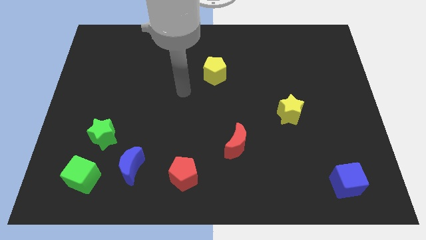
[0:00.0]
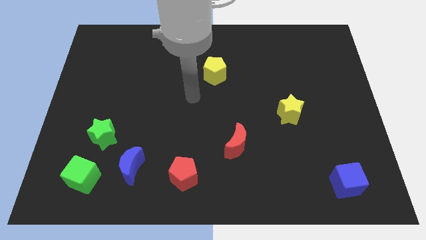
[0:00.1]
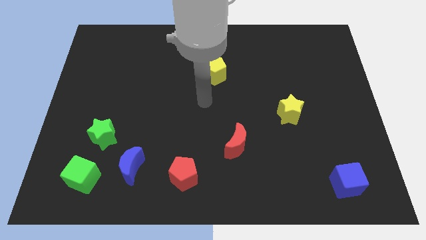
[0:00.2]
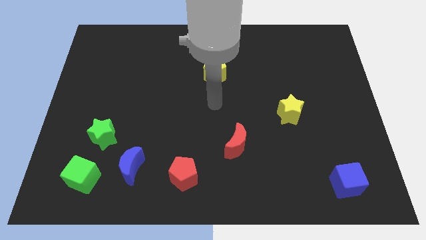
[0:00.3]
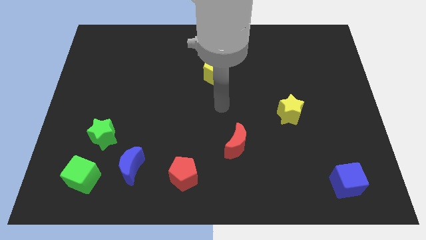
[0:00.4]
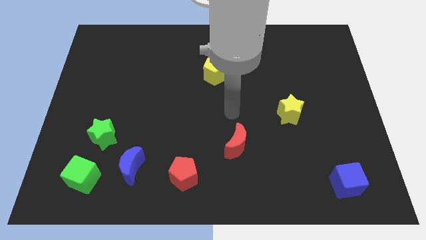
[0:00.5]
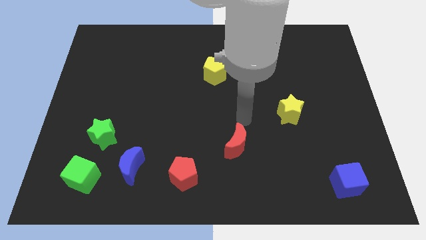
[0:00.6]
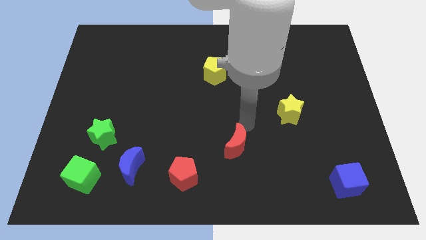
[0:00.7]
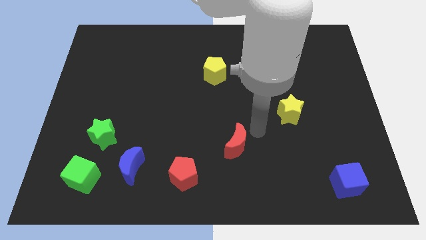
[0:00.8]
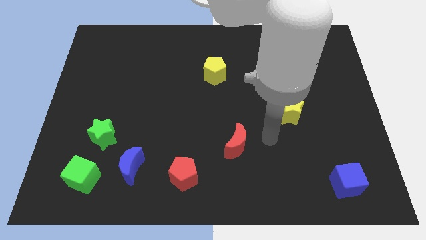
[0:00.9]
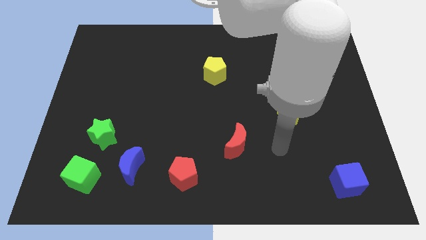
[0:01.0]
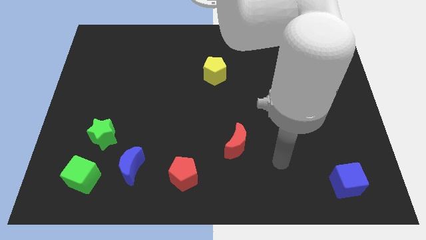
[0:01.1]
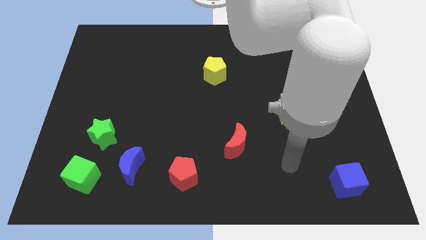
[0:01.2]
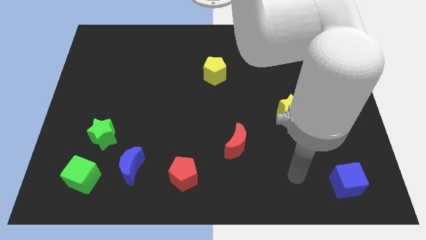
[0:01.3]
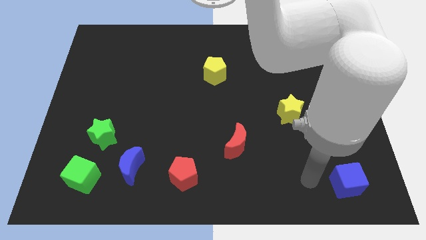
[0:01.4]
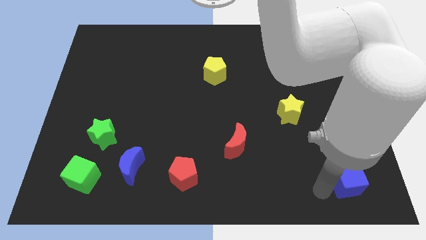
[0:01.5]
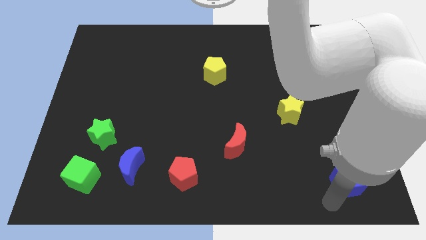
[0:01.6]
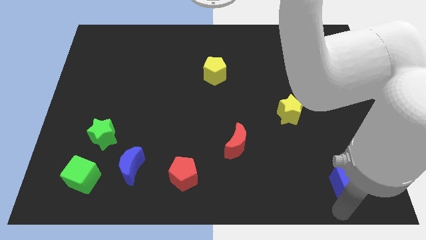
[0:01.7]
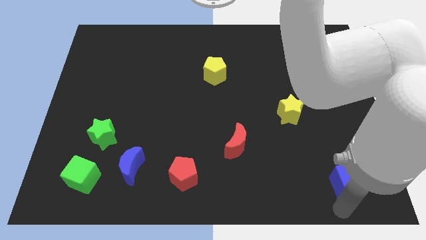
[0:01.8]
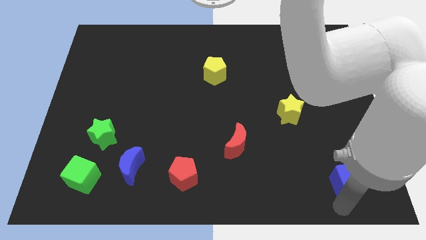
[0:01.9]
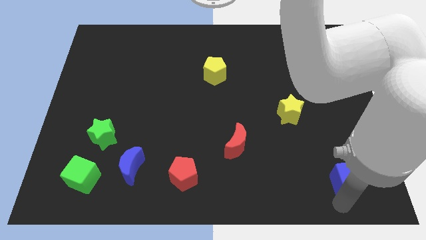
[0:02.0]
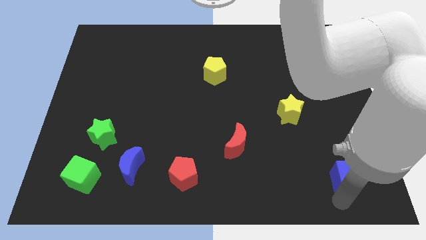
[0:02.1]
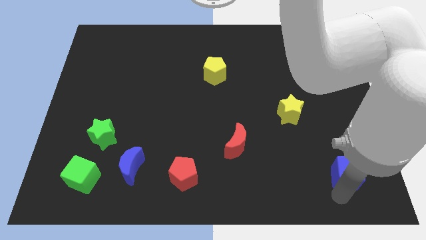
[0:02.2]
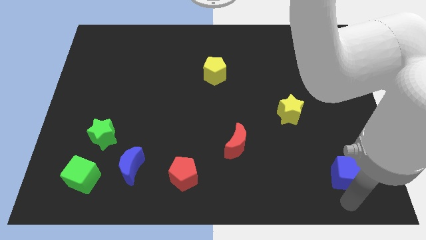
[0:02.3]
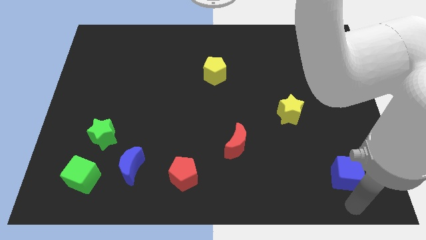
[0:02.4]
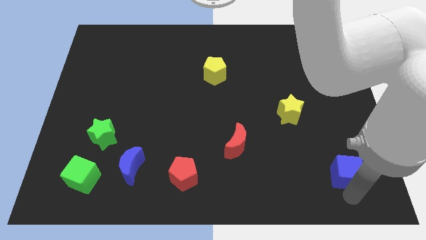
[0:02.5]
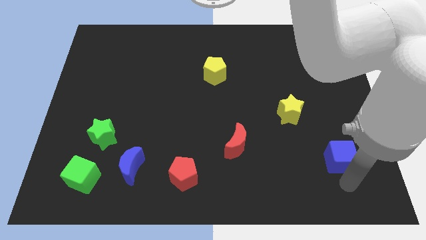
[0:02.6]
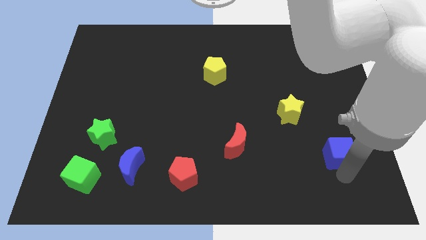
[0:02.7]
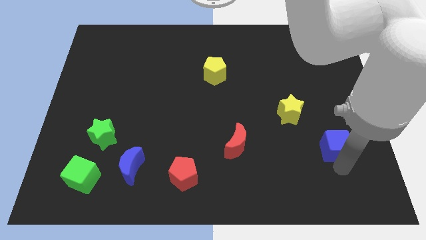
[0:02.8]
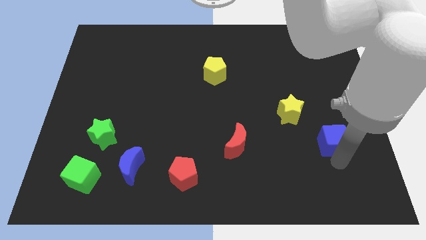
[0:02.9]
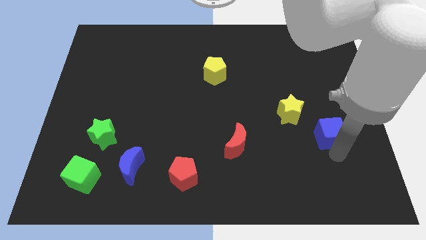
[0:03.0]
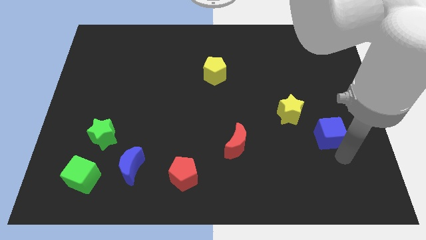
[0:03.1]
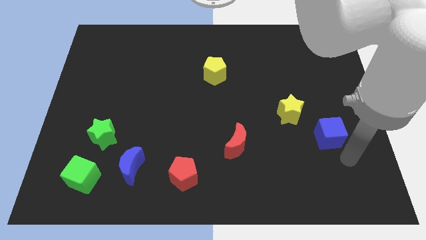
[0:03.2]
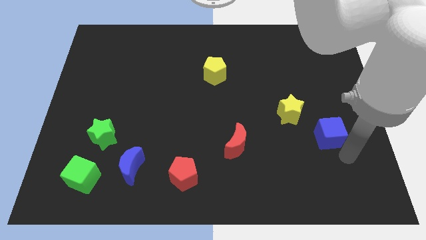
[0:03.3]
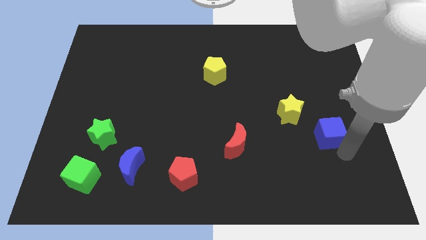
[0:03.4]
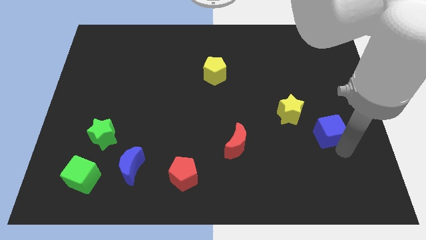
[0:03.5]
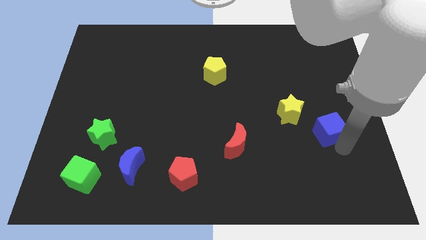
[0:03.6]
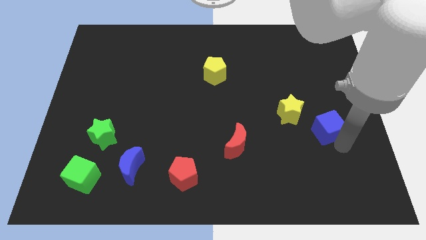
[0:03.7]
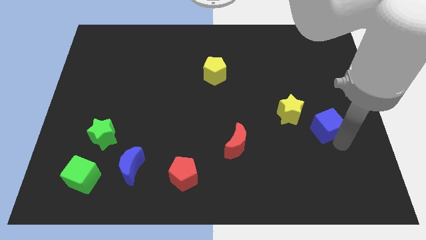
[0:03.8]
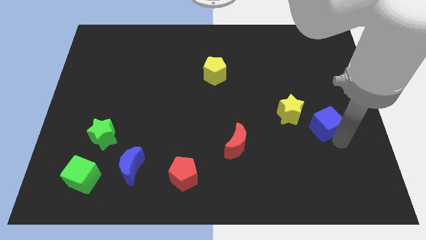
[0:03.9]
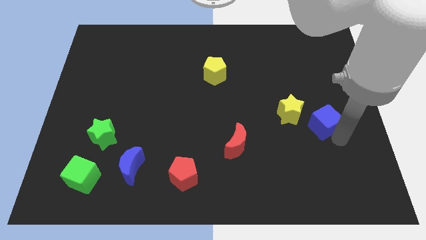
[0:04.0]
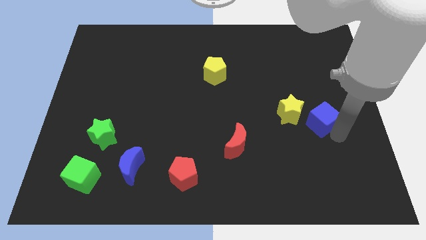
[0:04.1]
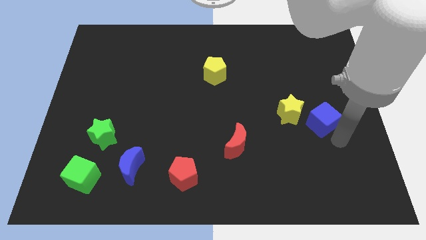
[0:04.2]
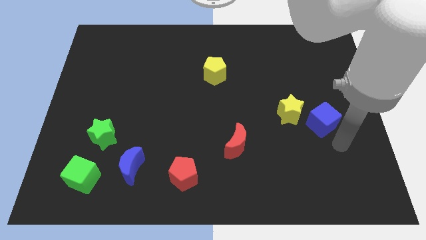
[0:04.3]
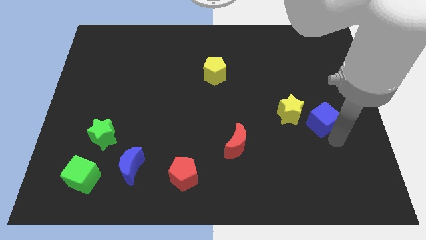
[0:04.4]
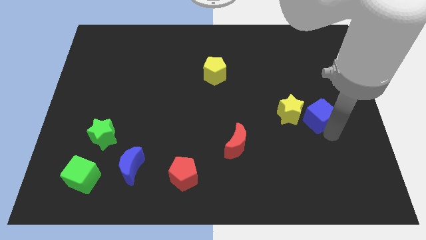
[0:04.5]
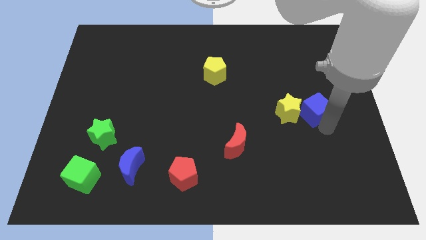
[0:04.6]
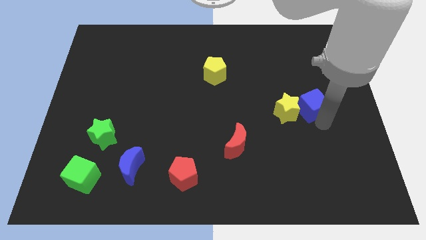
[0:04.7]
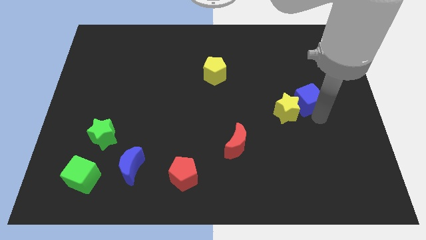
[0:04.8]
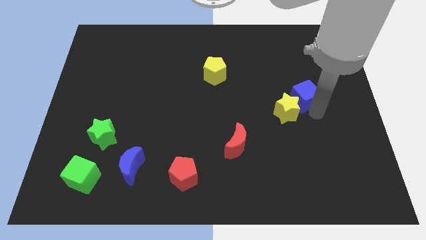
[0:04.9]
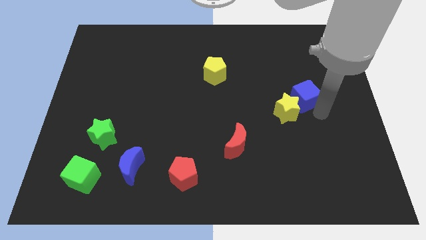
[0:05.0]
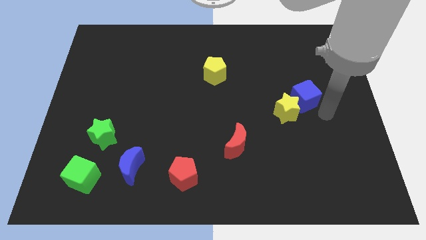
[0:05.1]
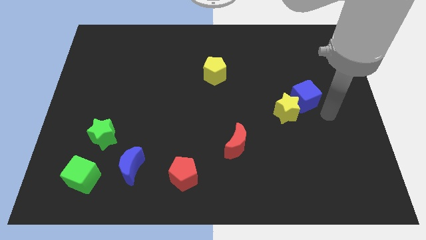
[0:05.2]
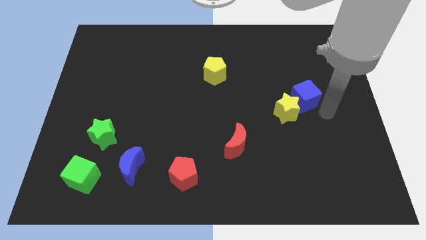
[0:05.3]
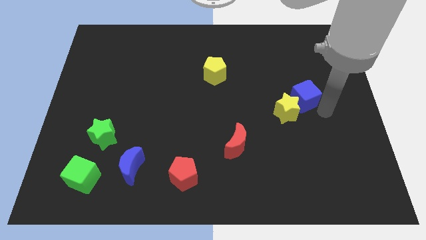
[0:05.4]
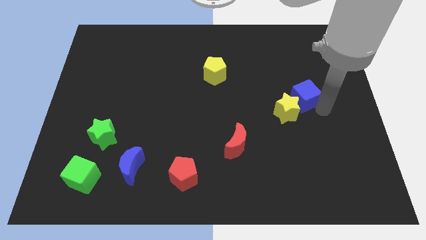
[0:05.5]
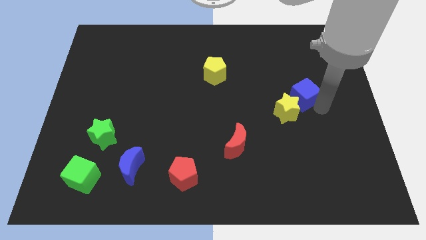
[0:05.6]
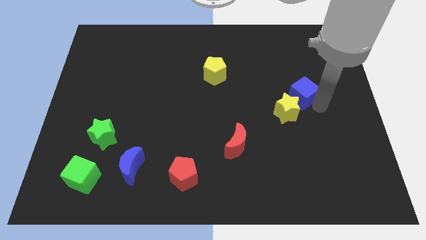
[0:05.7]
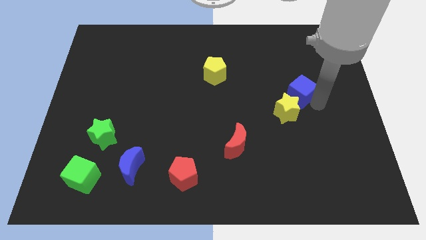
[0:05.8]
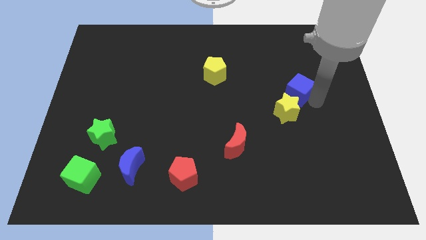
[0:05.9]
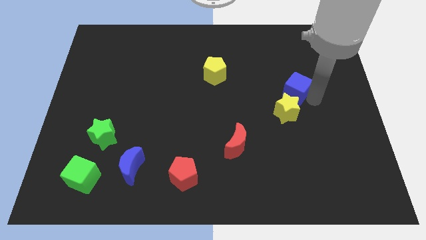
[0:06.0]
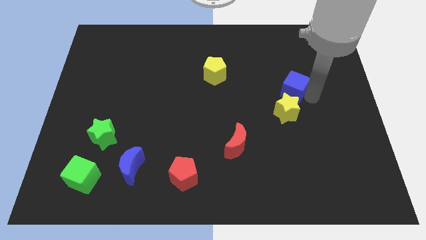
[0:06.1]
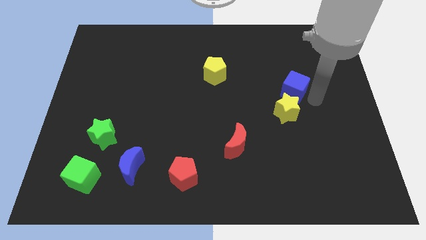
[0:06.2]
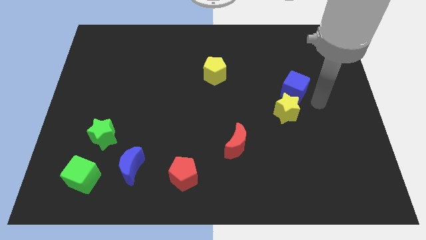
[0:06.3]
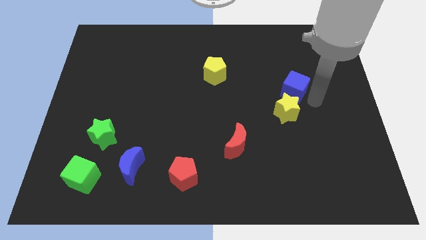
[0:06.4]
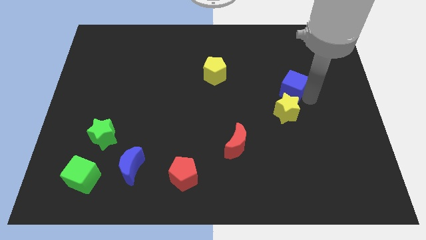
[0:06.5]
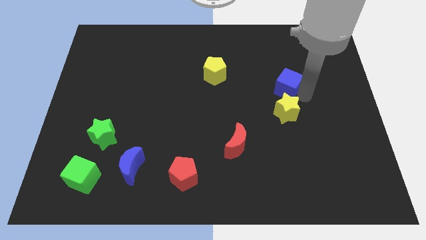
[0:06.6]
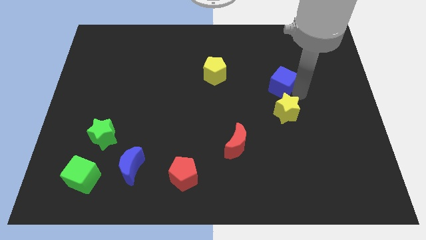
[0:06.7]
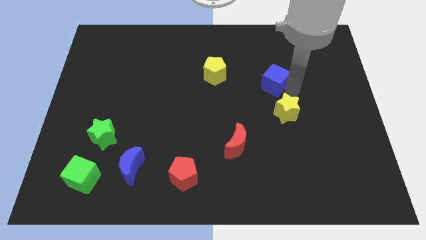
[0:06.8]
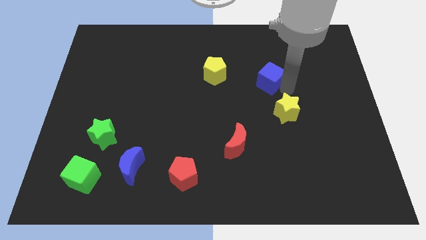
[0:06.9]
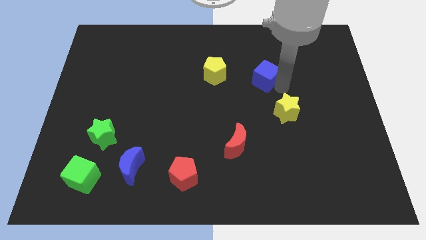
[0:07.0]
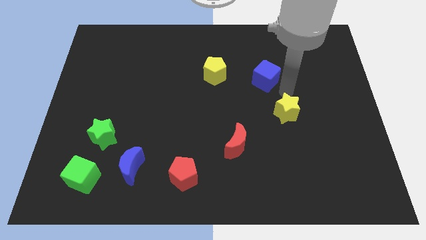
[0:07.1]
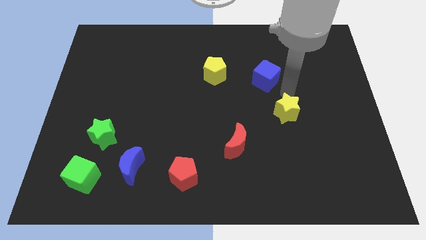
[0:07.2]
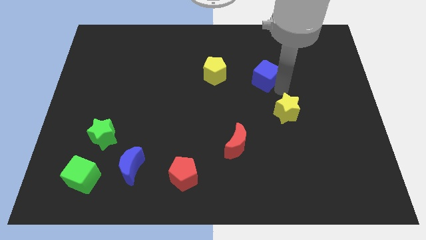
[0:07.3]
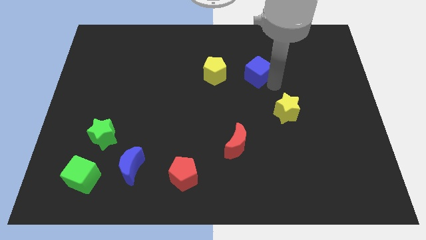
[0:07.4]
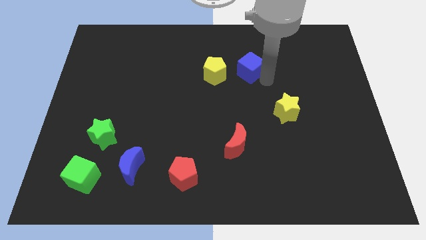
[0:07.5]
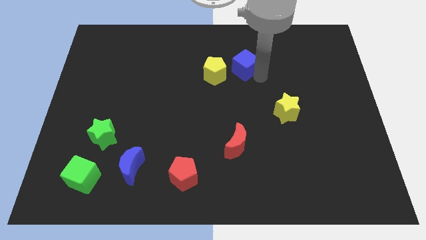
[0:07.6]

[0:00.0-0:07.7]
put the blue cube to the top right side of the yellow pentagon

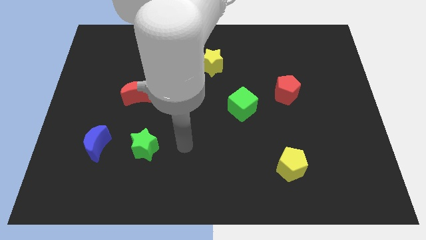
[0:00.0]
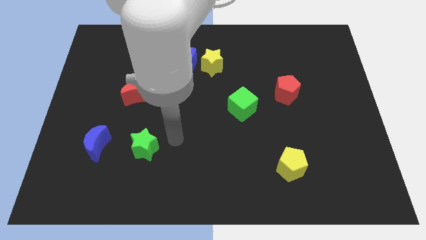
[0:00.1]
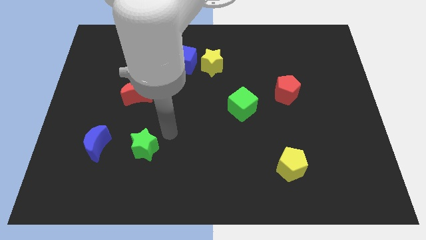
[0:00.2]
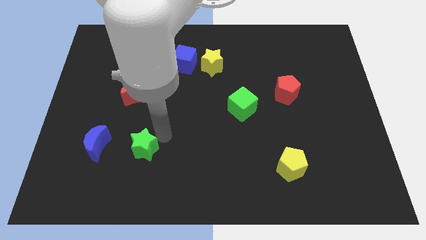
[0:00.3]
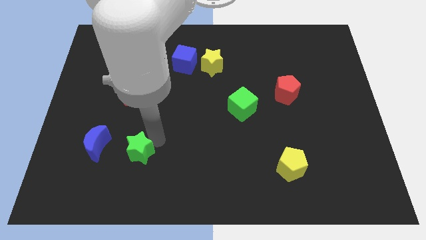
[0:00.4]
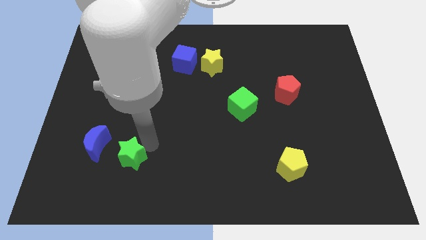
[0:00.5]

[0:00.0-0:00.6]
push the green star to the bottom right of the blue moon
